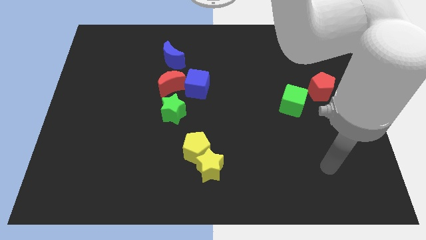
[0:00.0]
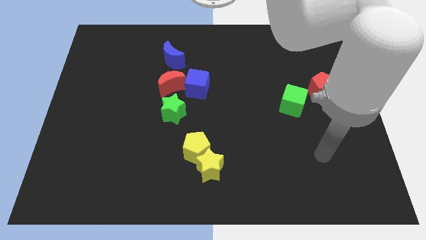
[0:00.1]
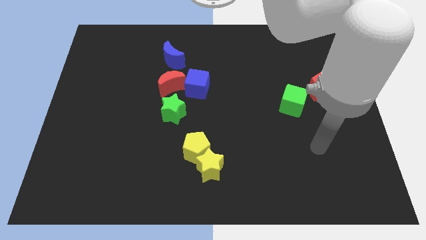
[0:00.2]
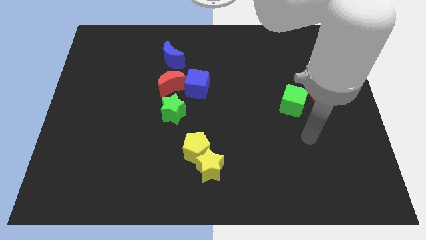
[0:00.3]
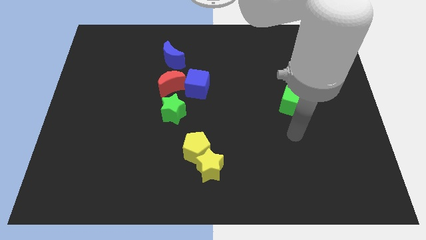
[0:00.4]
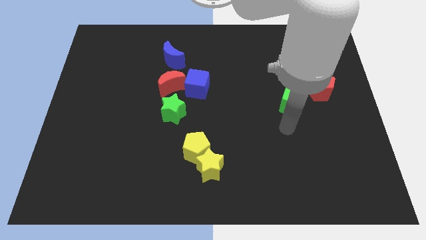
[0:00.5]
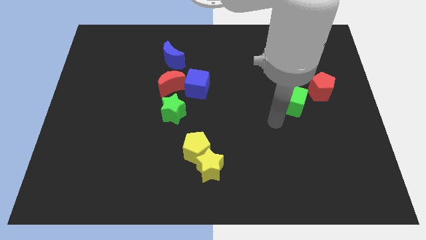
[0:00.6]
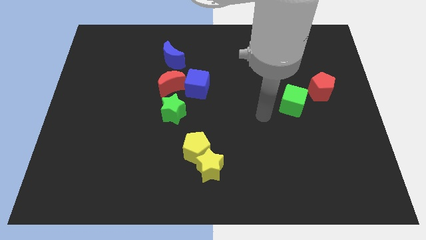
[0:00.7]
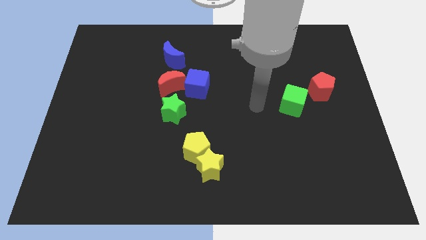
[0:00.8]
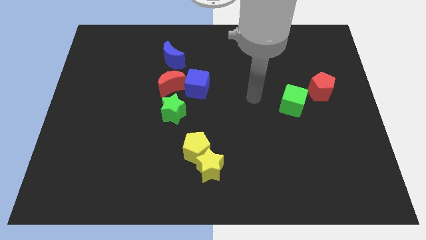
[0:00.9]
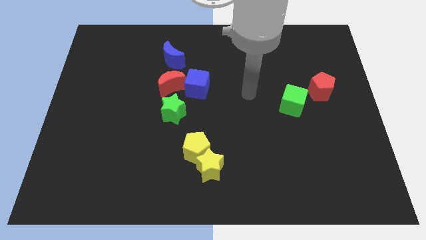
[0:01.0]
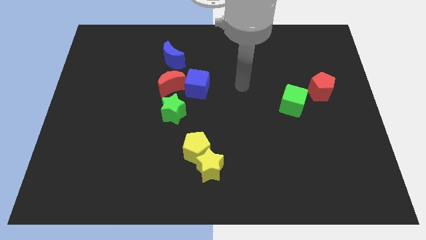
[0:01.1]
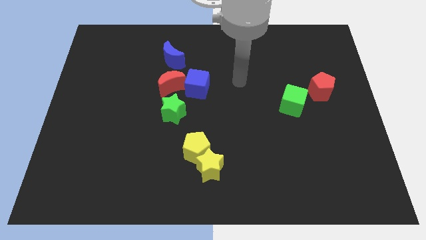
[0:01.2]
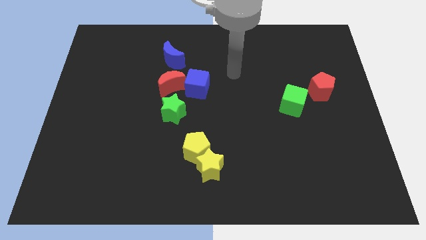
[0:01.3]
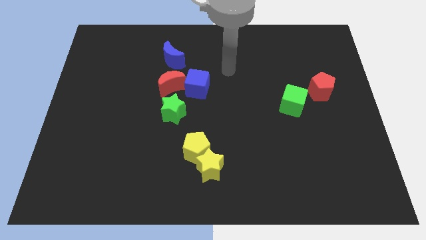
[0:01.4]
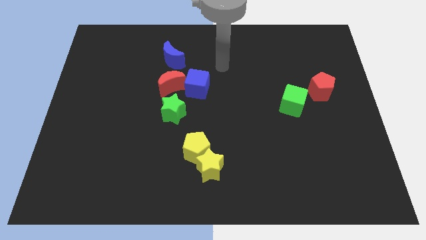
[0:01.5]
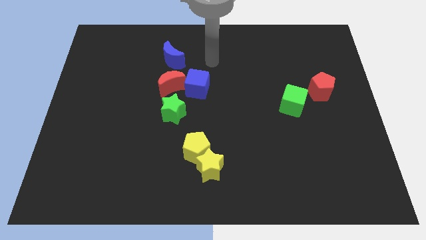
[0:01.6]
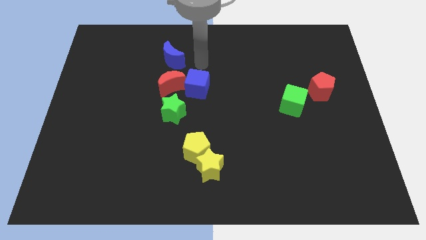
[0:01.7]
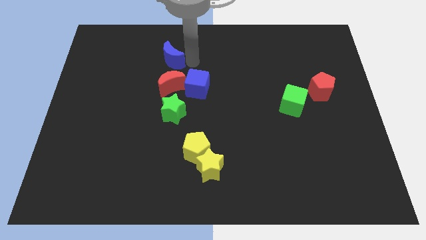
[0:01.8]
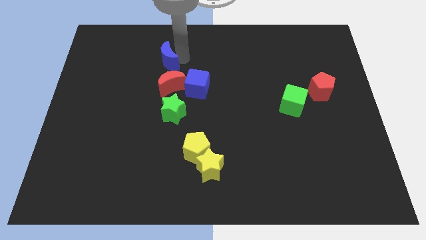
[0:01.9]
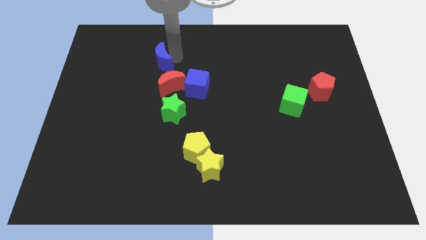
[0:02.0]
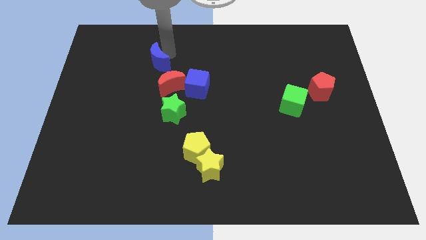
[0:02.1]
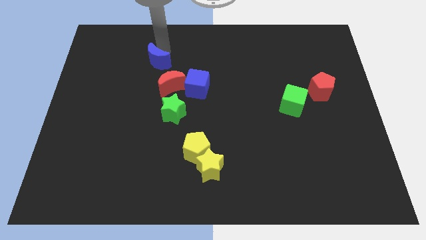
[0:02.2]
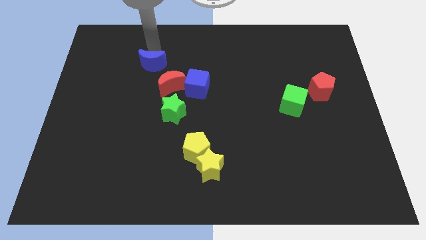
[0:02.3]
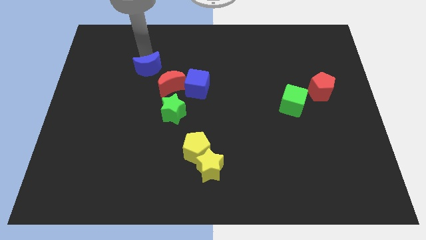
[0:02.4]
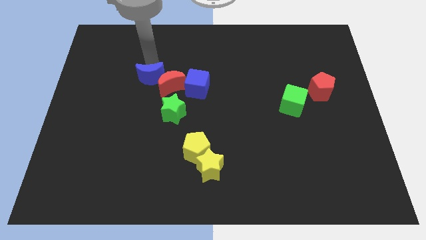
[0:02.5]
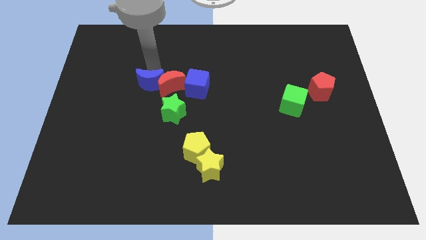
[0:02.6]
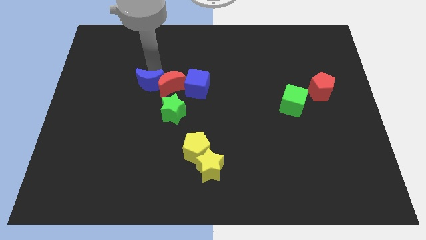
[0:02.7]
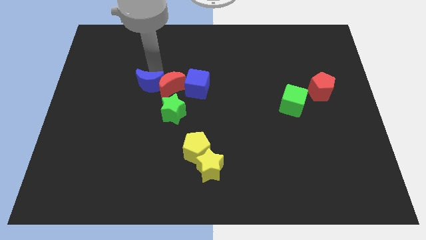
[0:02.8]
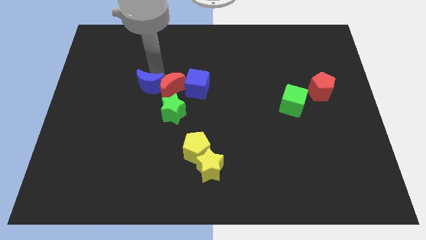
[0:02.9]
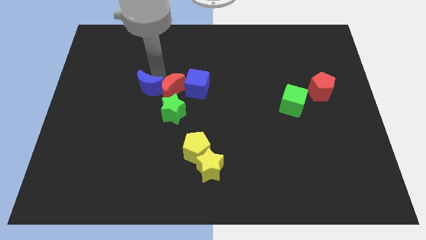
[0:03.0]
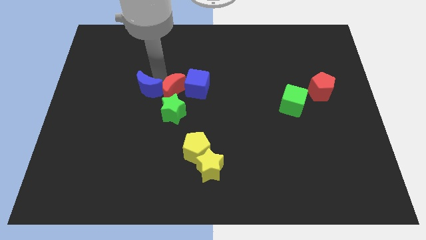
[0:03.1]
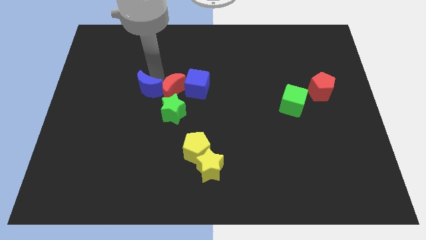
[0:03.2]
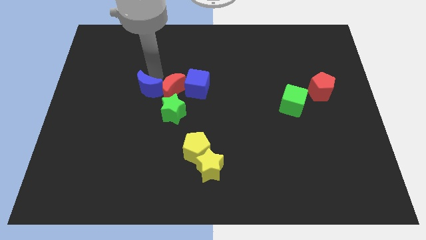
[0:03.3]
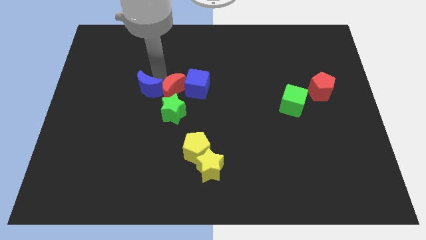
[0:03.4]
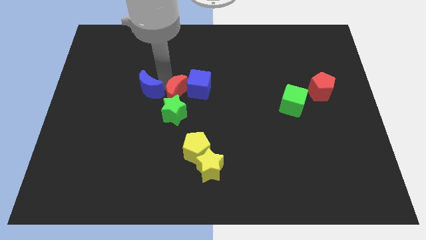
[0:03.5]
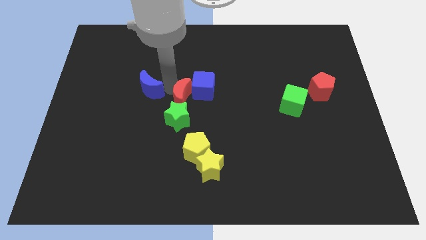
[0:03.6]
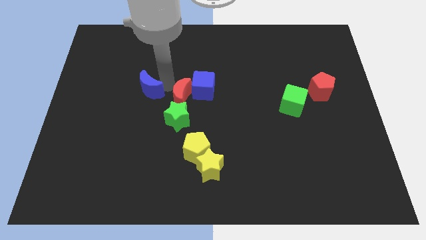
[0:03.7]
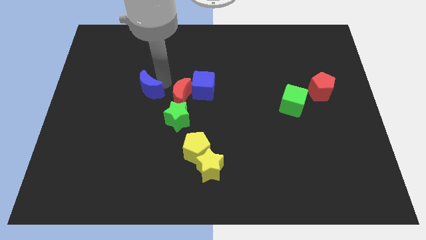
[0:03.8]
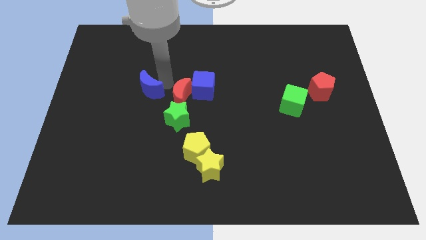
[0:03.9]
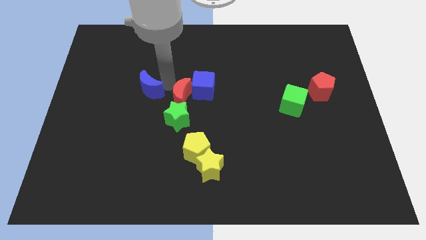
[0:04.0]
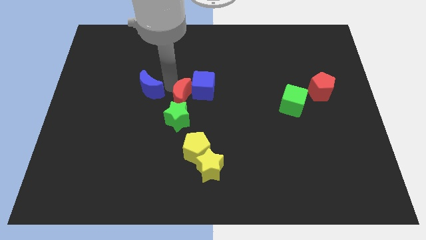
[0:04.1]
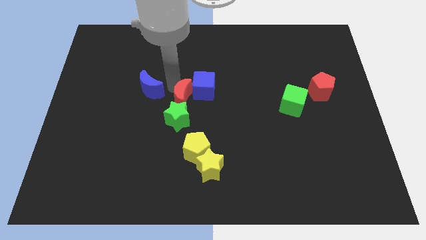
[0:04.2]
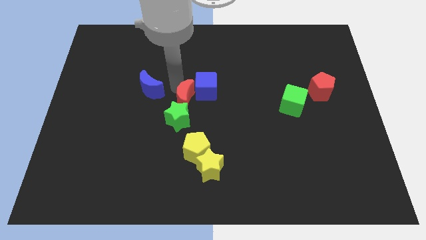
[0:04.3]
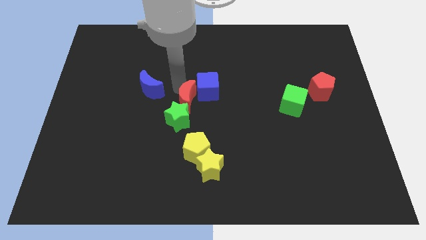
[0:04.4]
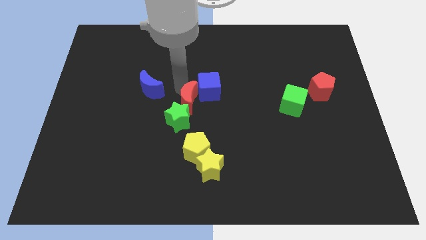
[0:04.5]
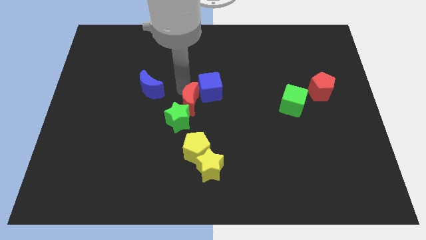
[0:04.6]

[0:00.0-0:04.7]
slide the red moon downwards and then right a little

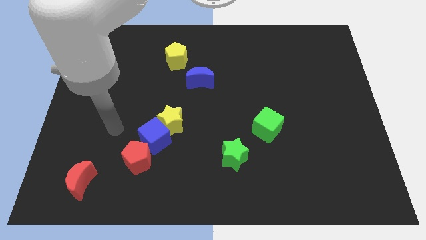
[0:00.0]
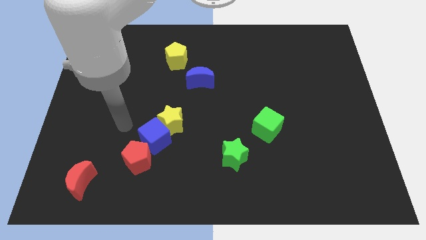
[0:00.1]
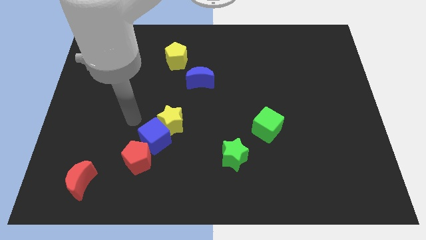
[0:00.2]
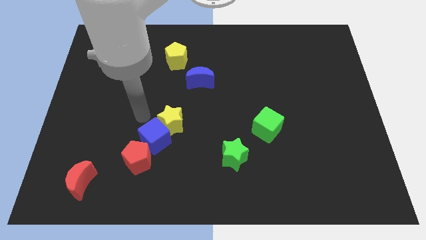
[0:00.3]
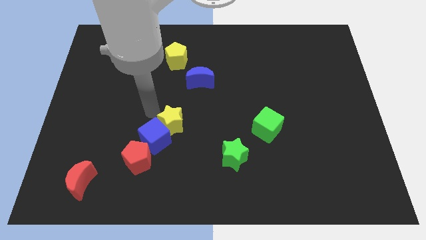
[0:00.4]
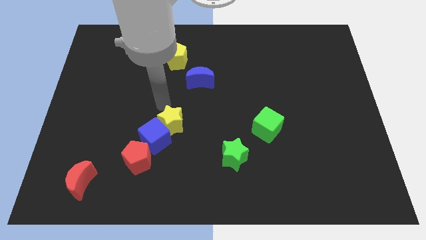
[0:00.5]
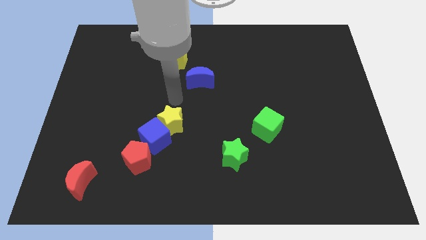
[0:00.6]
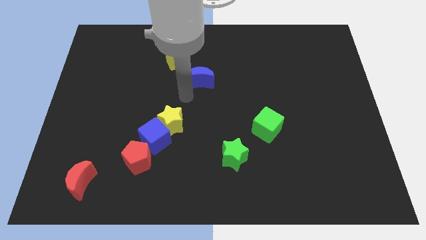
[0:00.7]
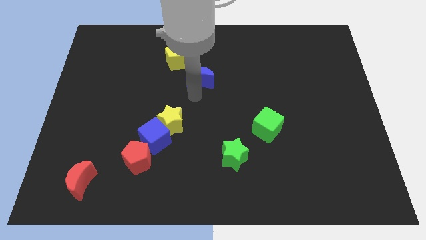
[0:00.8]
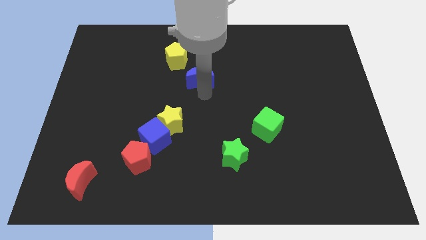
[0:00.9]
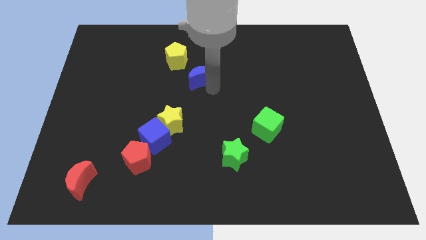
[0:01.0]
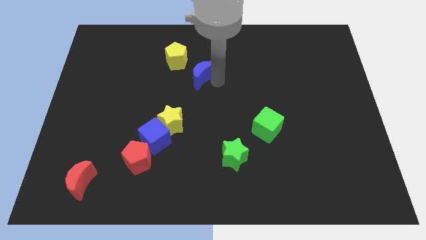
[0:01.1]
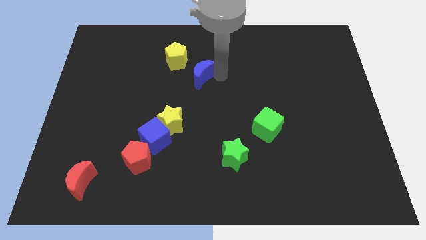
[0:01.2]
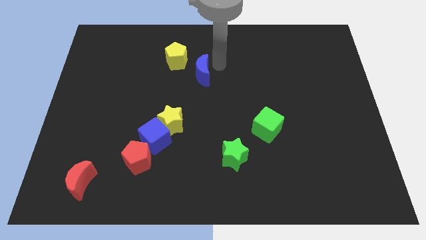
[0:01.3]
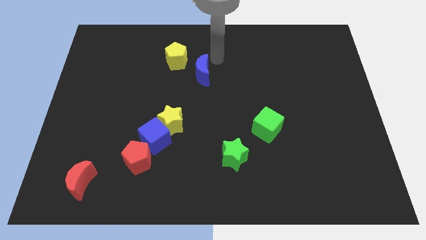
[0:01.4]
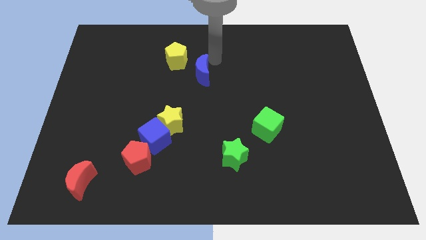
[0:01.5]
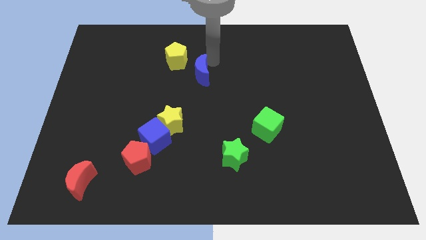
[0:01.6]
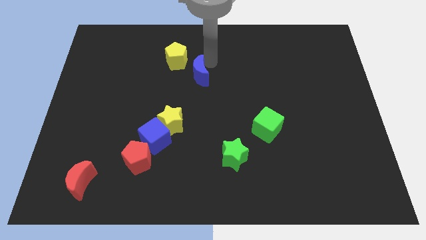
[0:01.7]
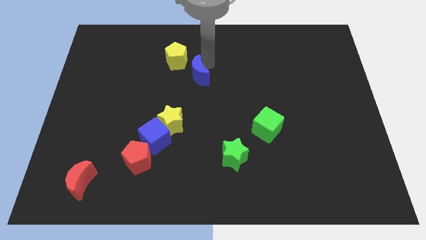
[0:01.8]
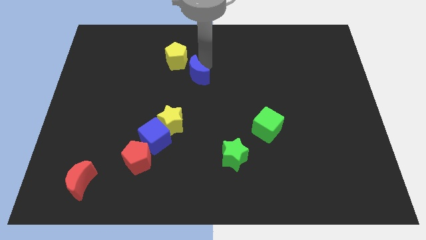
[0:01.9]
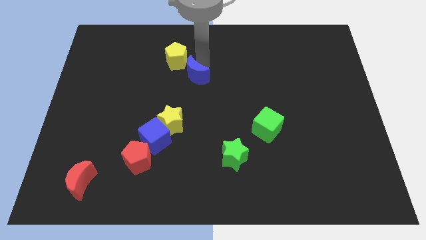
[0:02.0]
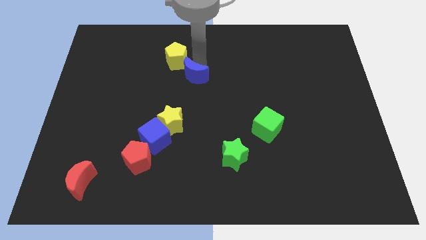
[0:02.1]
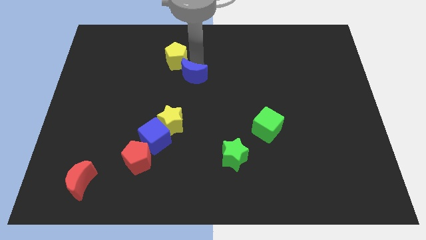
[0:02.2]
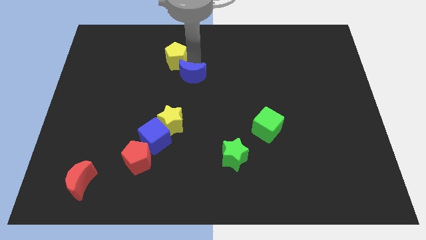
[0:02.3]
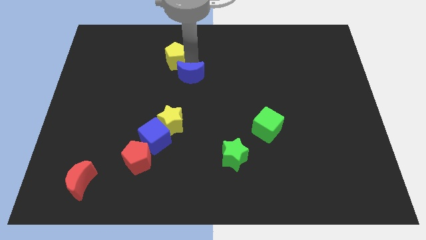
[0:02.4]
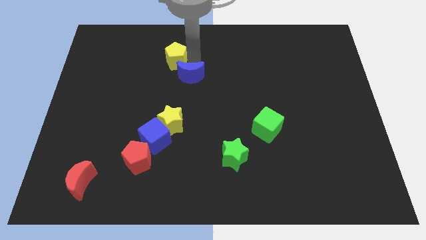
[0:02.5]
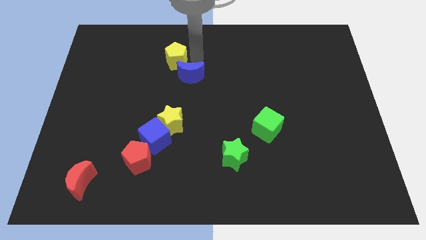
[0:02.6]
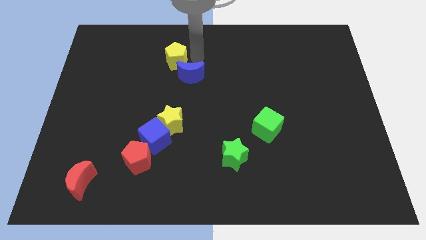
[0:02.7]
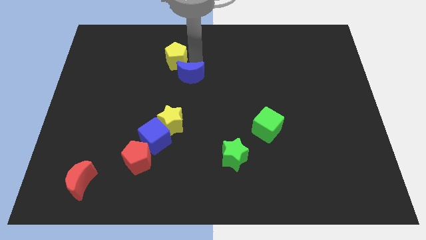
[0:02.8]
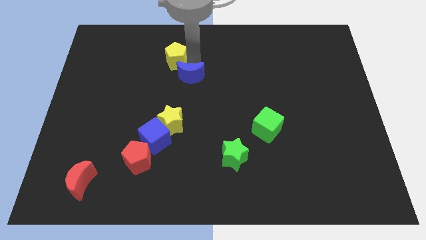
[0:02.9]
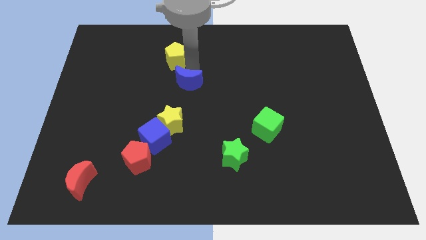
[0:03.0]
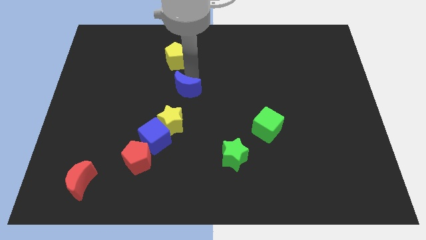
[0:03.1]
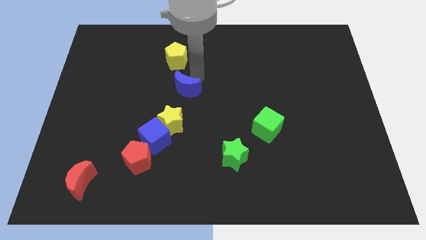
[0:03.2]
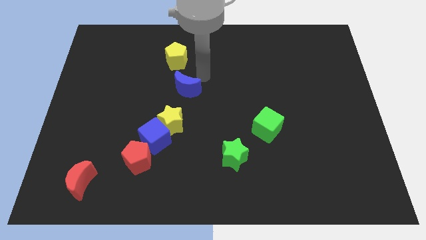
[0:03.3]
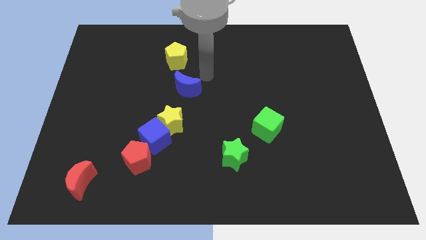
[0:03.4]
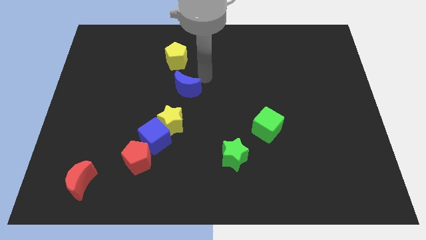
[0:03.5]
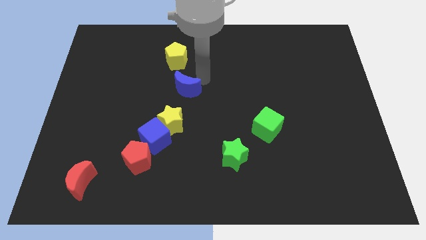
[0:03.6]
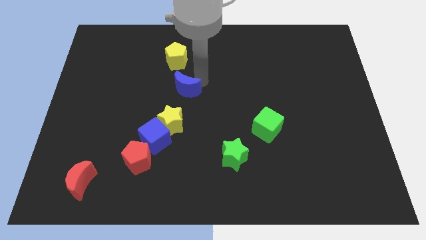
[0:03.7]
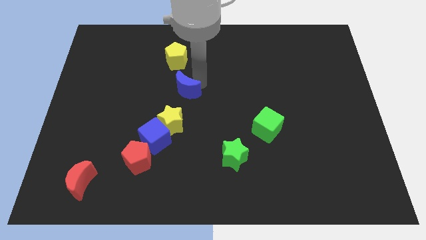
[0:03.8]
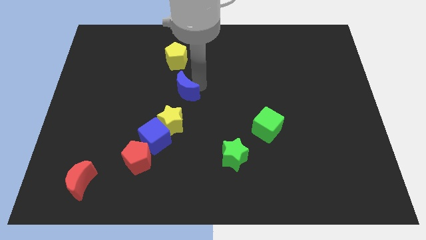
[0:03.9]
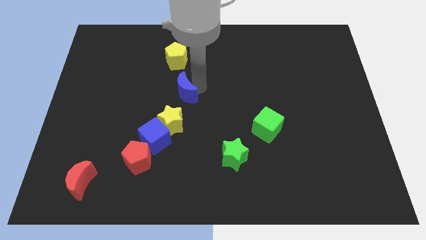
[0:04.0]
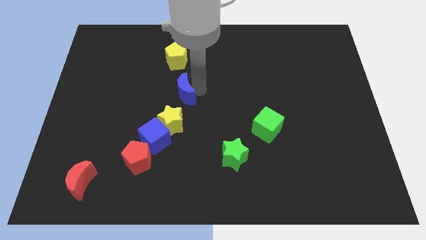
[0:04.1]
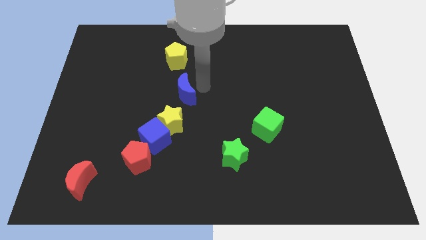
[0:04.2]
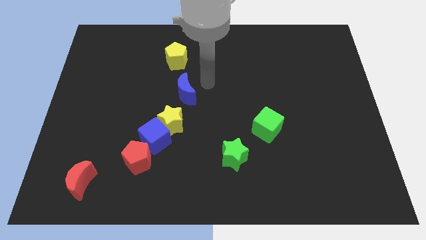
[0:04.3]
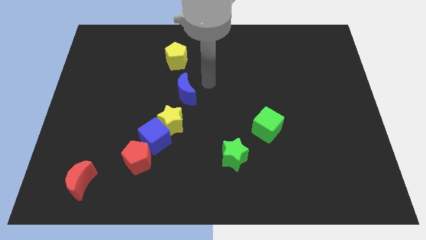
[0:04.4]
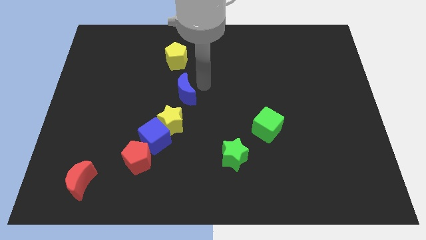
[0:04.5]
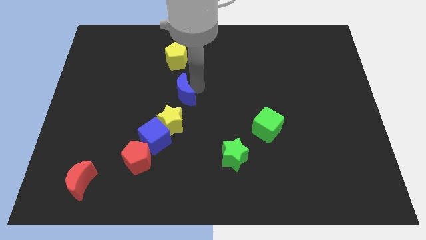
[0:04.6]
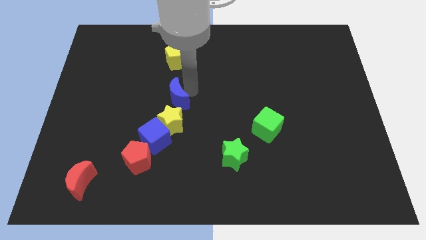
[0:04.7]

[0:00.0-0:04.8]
slightly move the blue moon downwards and left
